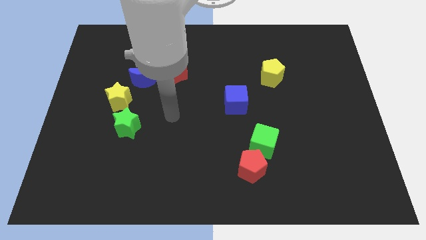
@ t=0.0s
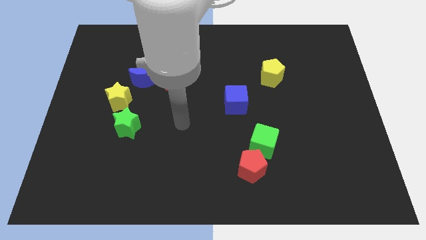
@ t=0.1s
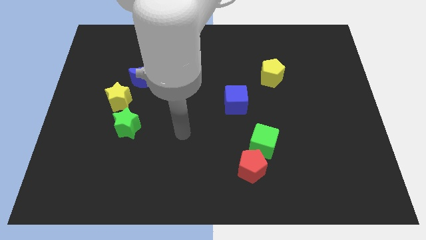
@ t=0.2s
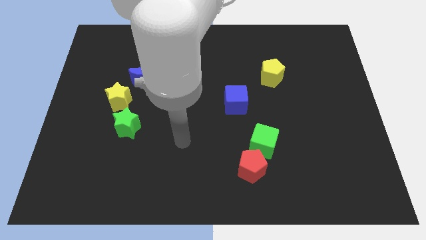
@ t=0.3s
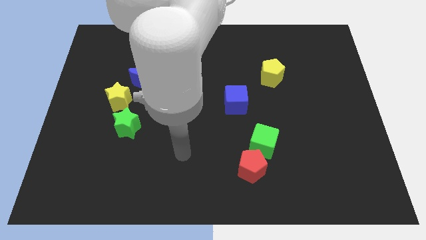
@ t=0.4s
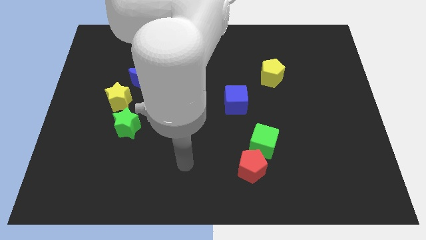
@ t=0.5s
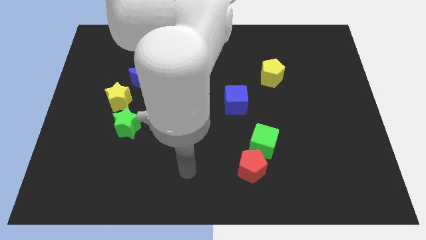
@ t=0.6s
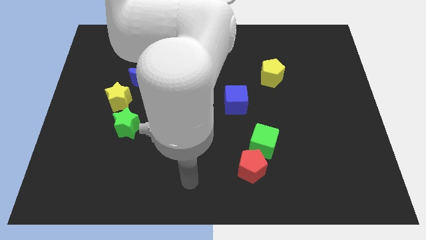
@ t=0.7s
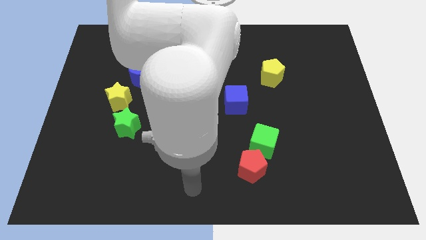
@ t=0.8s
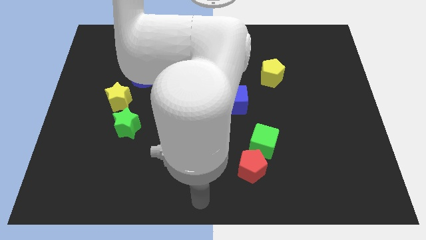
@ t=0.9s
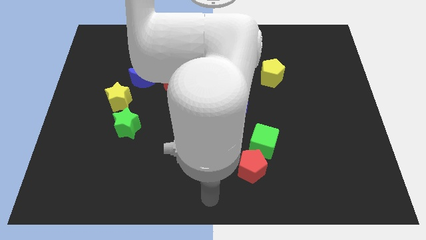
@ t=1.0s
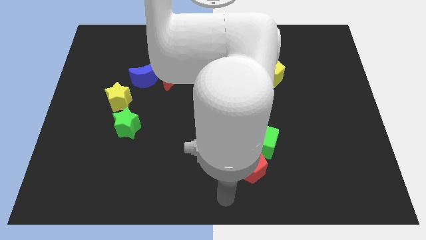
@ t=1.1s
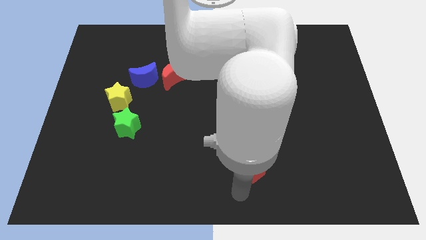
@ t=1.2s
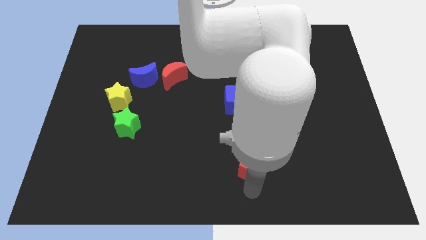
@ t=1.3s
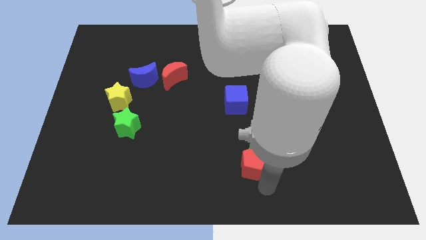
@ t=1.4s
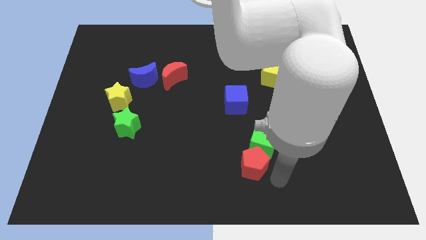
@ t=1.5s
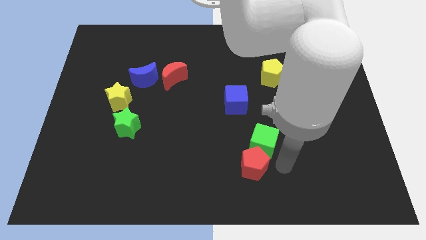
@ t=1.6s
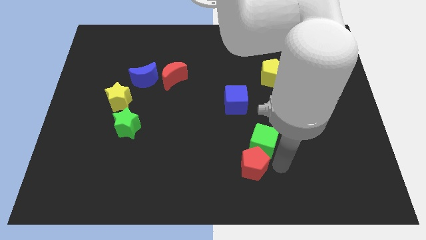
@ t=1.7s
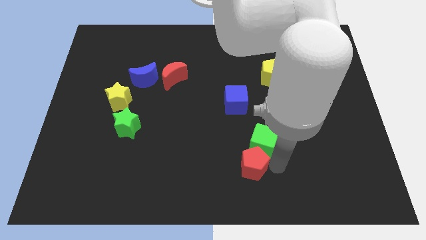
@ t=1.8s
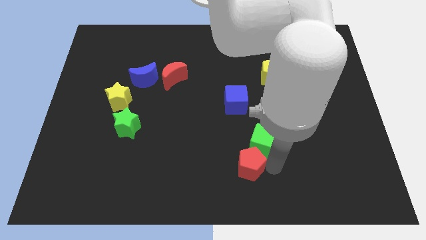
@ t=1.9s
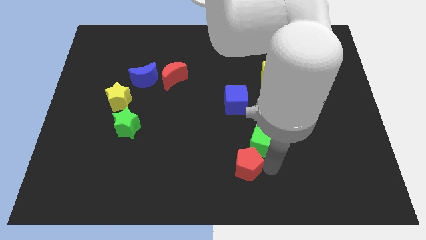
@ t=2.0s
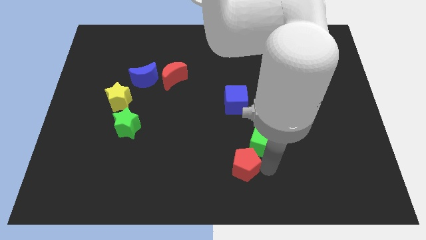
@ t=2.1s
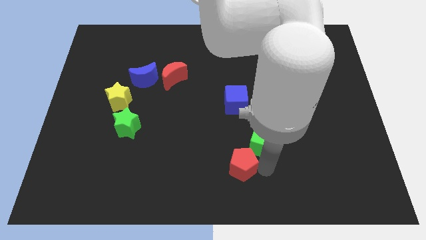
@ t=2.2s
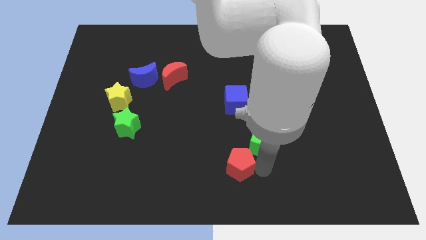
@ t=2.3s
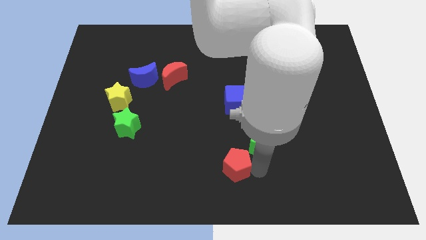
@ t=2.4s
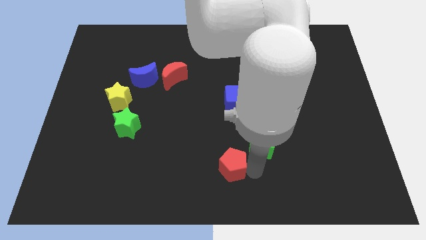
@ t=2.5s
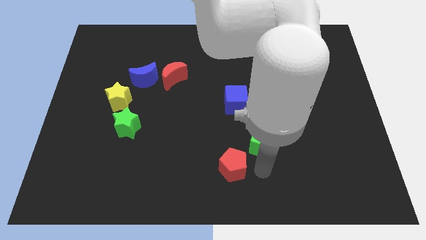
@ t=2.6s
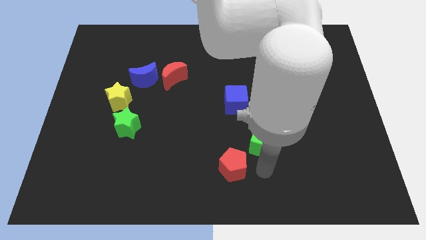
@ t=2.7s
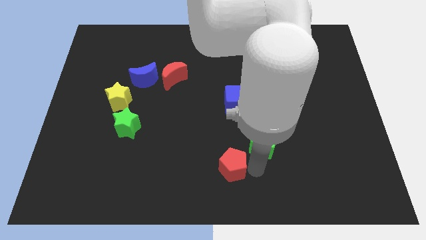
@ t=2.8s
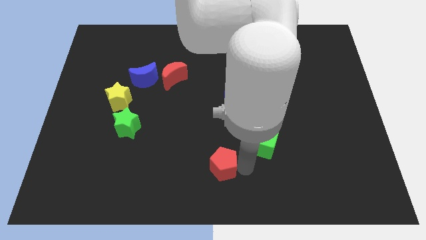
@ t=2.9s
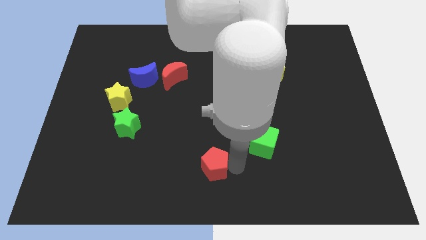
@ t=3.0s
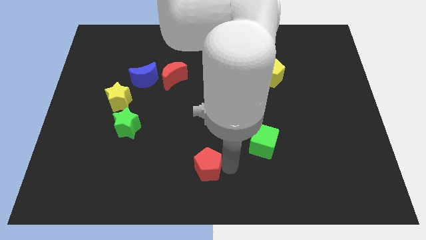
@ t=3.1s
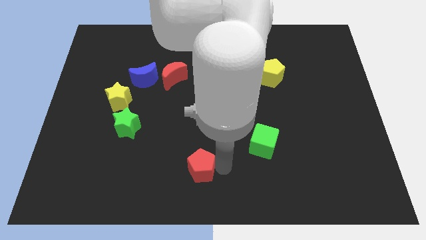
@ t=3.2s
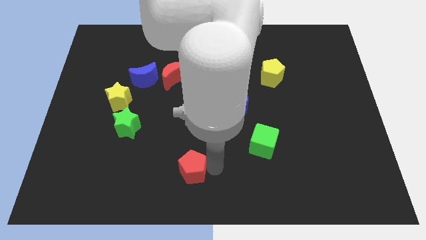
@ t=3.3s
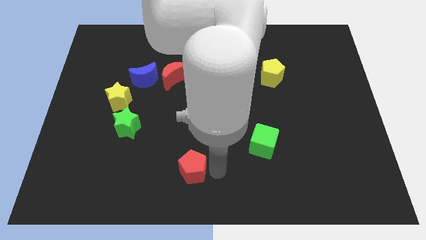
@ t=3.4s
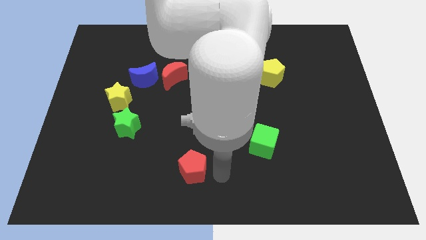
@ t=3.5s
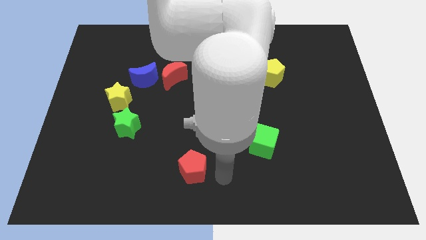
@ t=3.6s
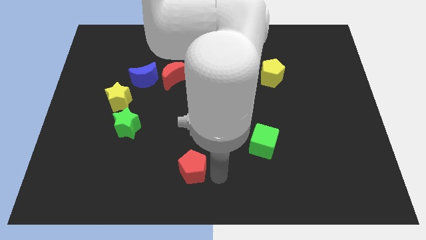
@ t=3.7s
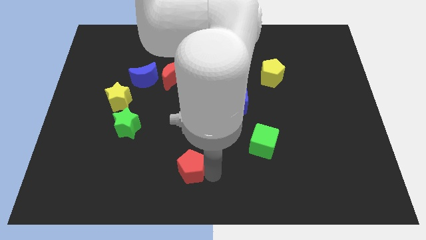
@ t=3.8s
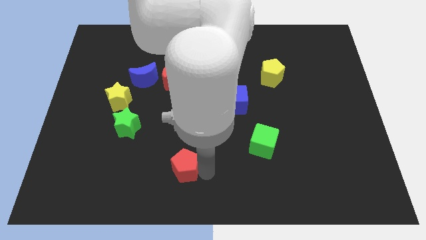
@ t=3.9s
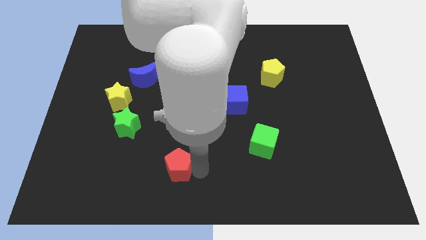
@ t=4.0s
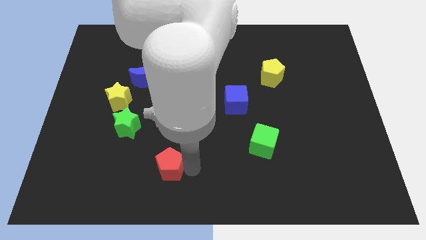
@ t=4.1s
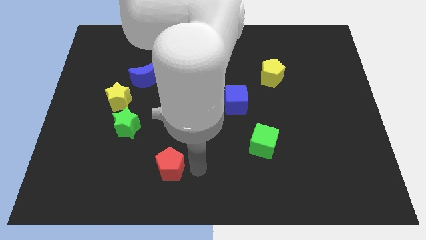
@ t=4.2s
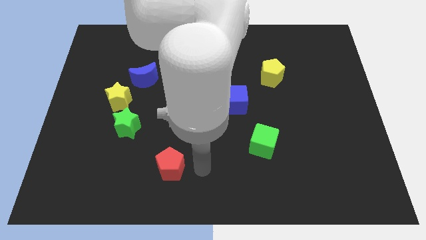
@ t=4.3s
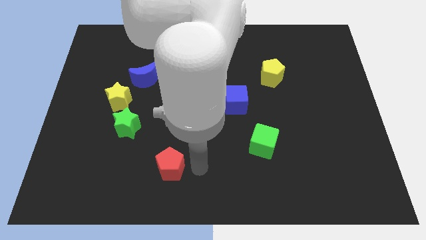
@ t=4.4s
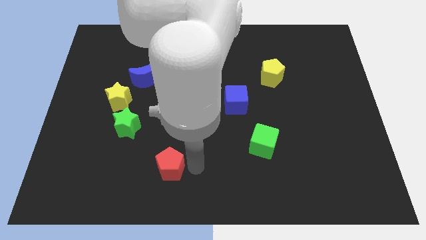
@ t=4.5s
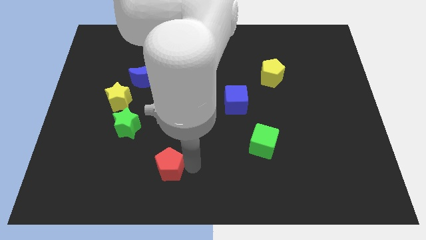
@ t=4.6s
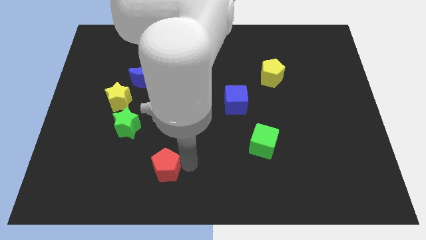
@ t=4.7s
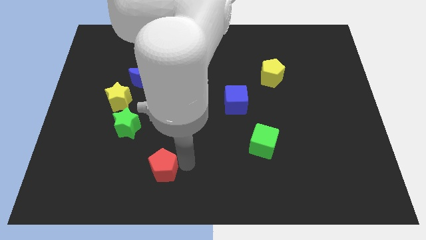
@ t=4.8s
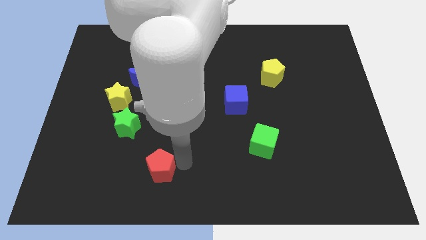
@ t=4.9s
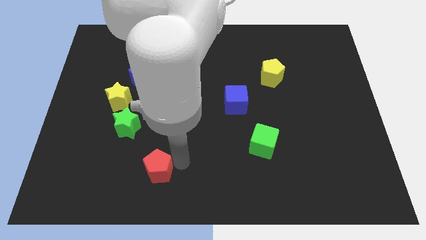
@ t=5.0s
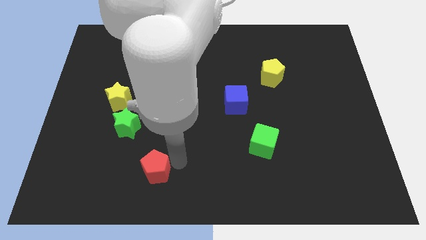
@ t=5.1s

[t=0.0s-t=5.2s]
move the red pentagon to the left

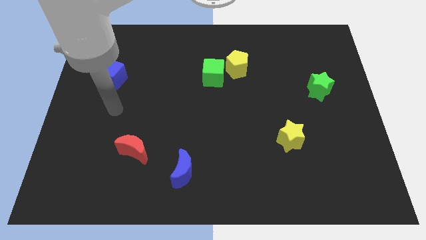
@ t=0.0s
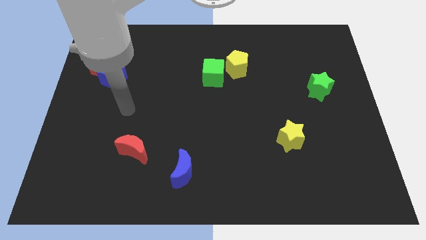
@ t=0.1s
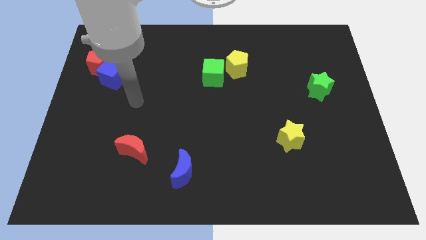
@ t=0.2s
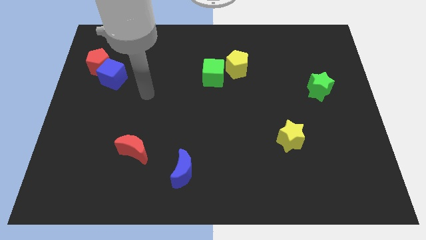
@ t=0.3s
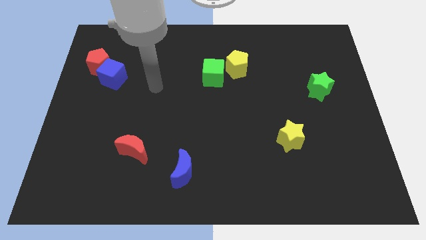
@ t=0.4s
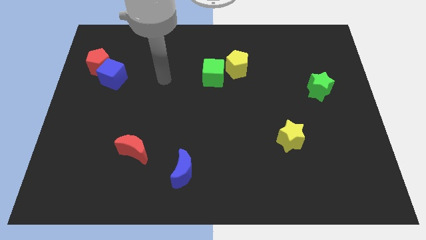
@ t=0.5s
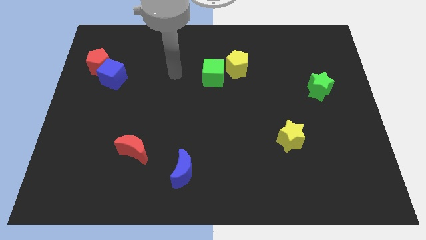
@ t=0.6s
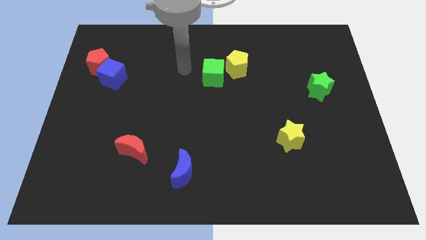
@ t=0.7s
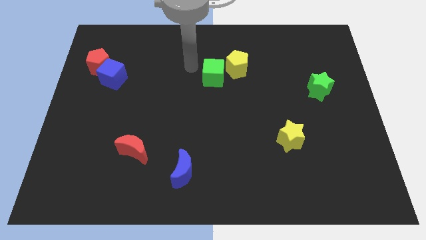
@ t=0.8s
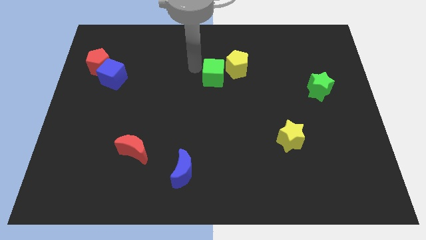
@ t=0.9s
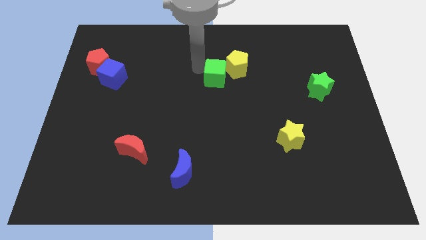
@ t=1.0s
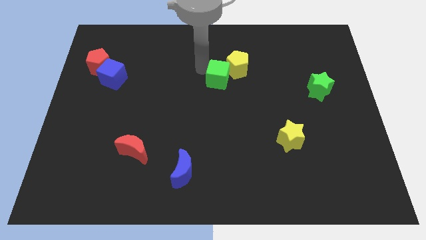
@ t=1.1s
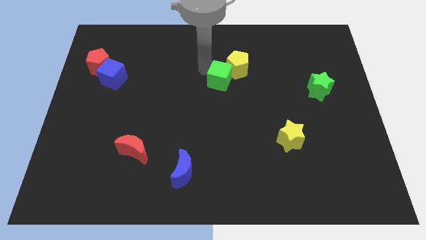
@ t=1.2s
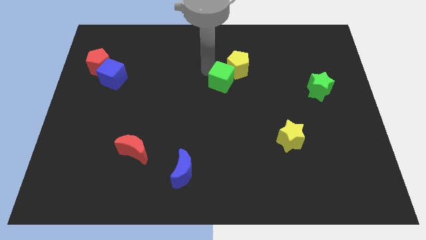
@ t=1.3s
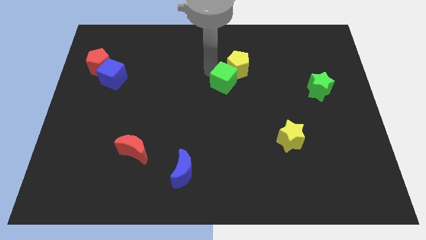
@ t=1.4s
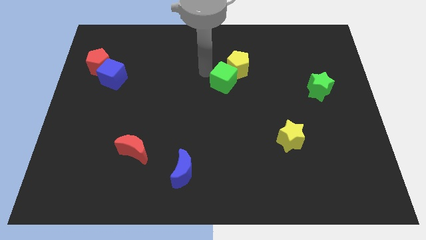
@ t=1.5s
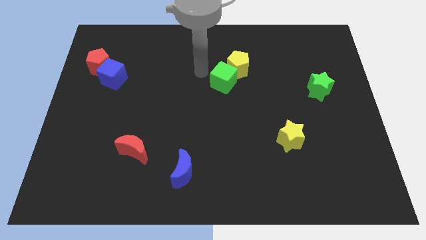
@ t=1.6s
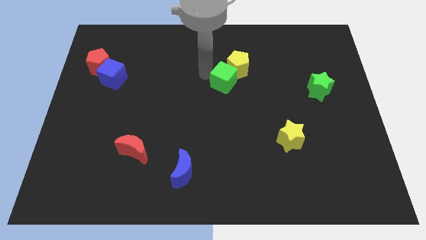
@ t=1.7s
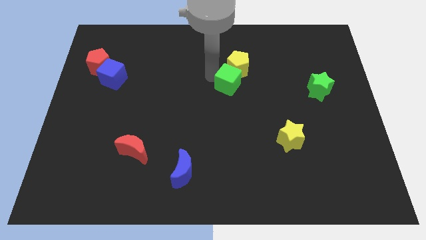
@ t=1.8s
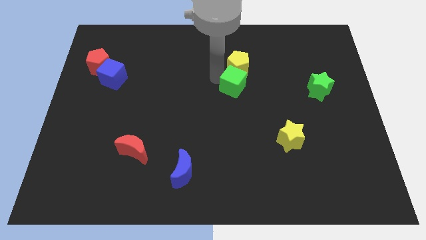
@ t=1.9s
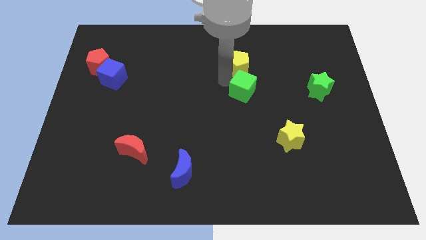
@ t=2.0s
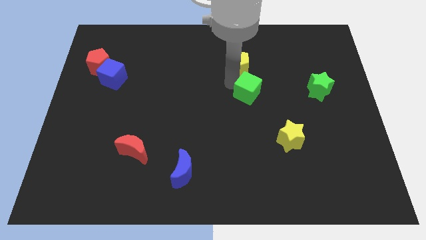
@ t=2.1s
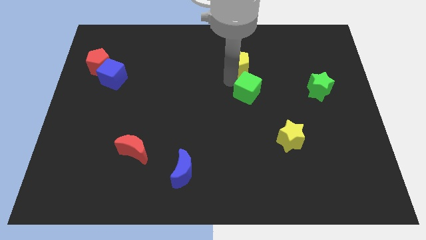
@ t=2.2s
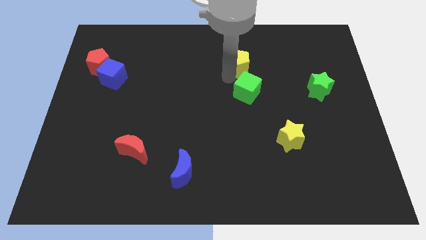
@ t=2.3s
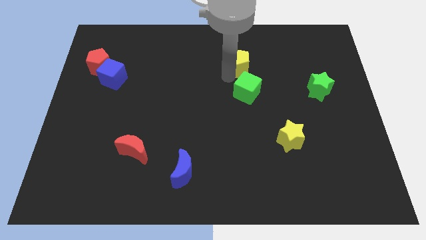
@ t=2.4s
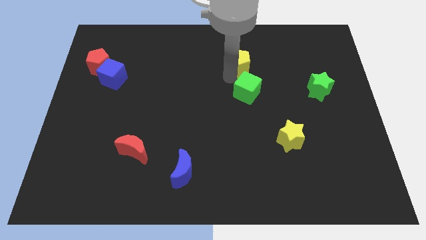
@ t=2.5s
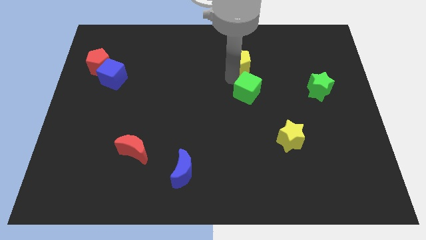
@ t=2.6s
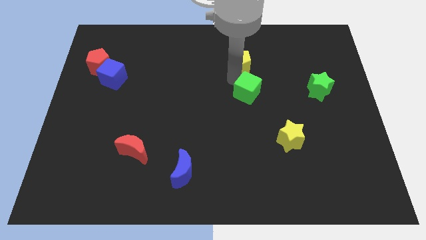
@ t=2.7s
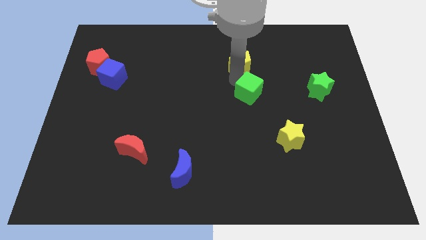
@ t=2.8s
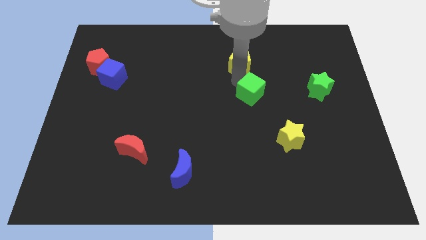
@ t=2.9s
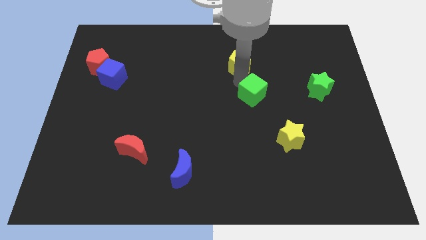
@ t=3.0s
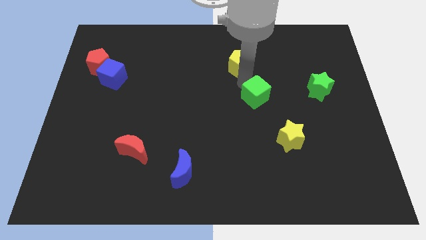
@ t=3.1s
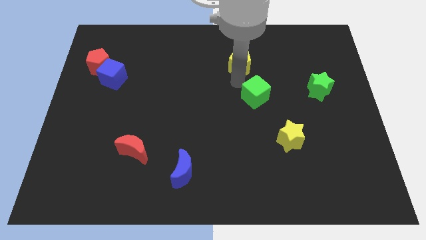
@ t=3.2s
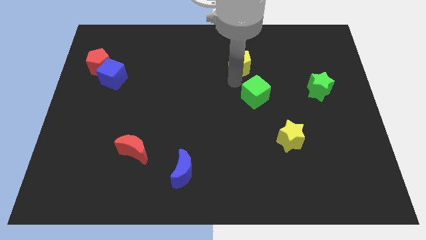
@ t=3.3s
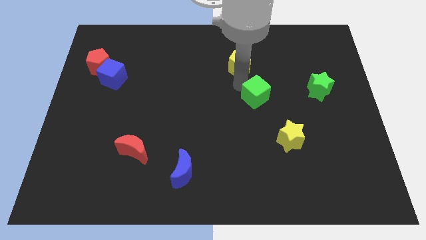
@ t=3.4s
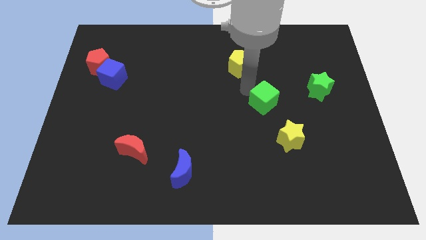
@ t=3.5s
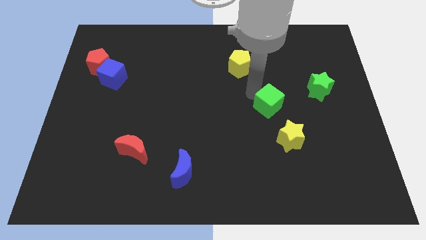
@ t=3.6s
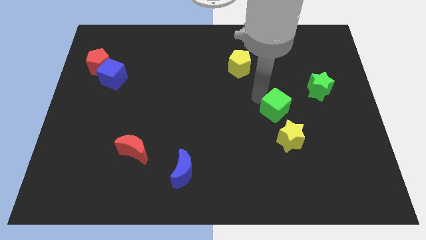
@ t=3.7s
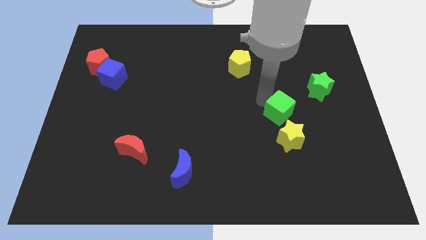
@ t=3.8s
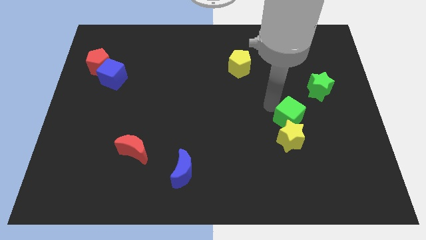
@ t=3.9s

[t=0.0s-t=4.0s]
slide the green cube down and right diagonally
